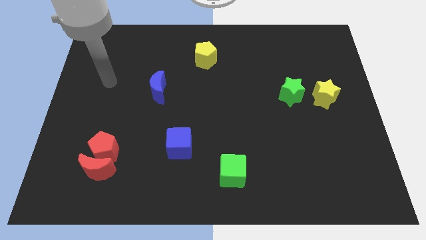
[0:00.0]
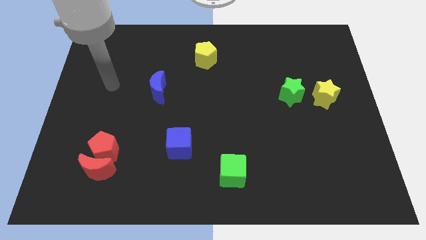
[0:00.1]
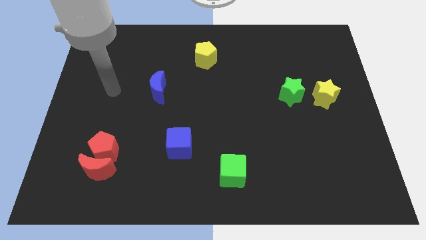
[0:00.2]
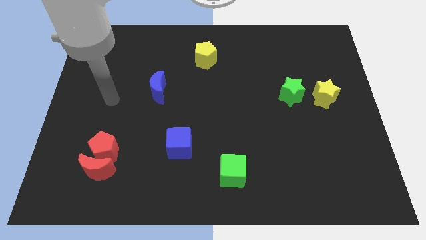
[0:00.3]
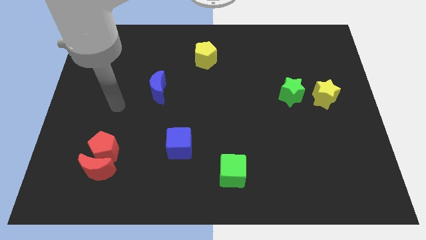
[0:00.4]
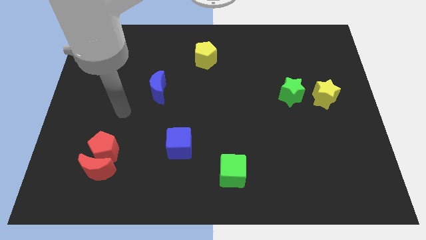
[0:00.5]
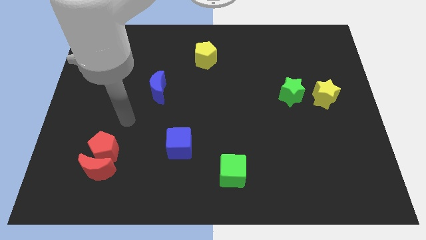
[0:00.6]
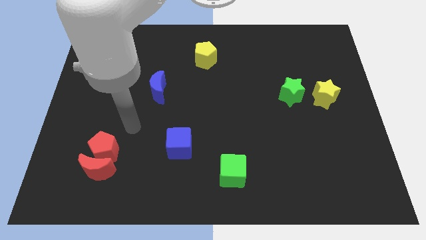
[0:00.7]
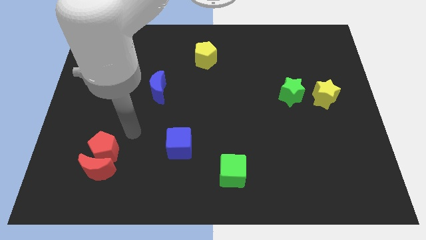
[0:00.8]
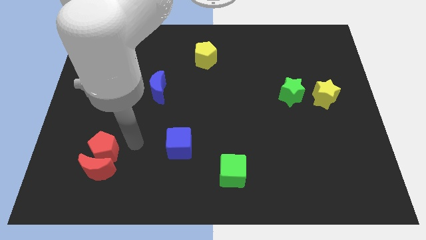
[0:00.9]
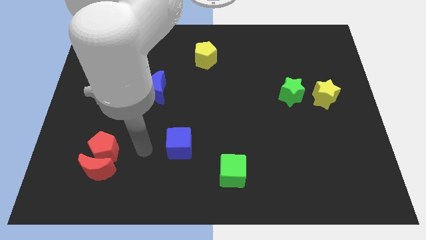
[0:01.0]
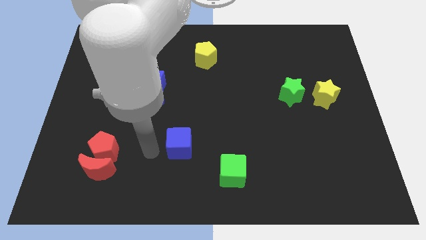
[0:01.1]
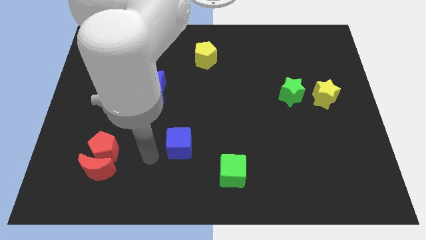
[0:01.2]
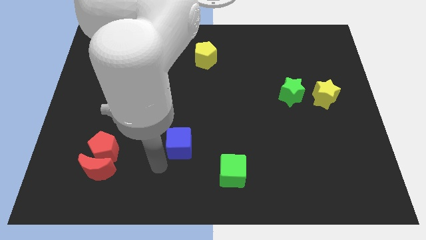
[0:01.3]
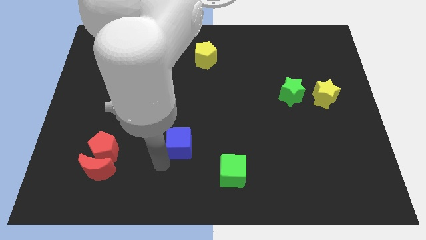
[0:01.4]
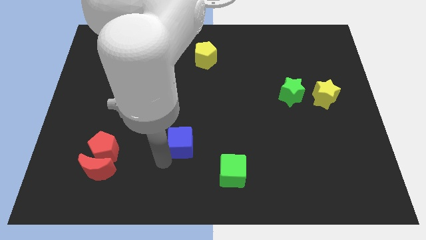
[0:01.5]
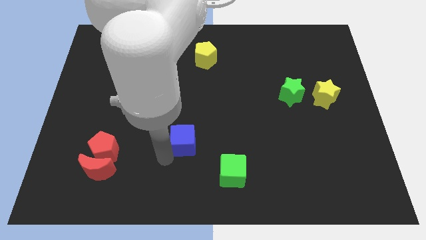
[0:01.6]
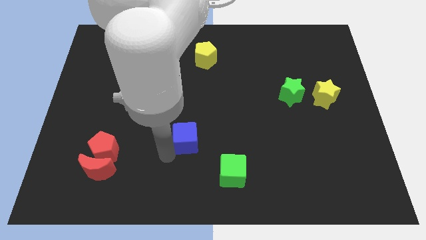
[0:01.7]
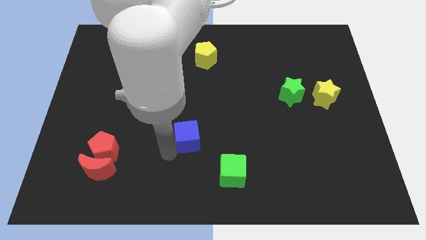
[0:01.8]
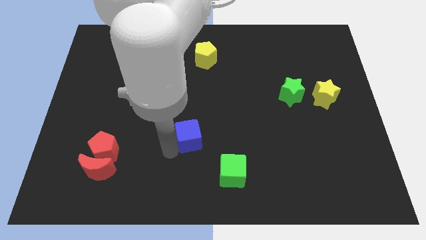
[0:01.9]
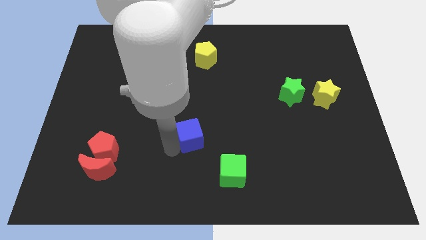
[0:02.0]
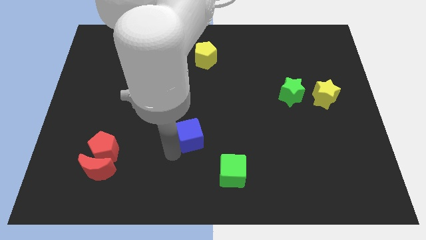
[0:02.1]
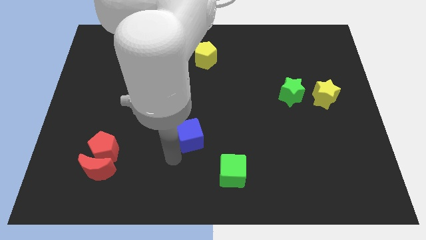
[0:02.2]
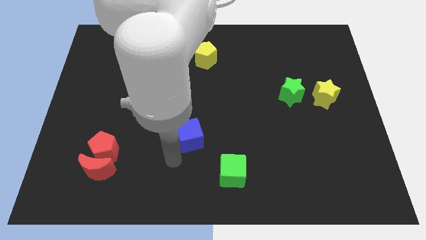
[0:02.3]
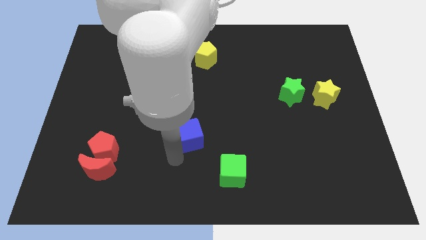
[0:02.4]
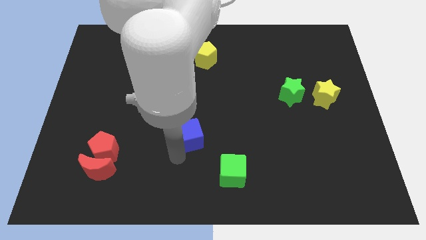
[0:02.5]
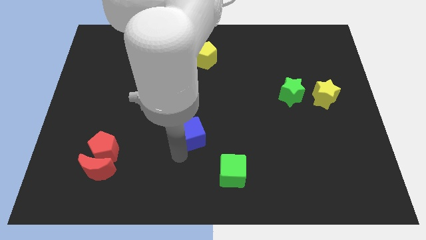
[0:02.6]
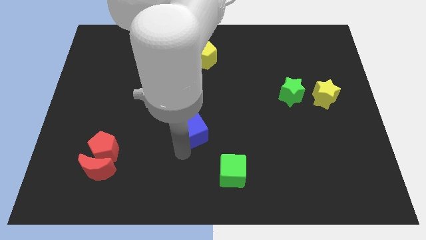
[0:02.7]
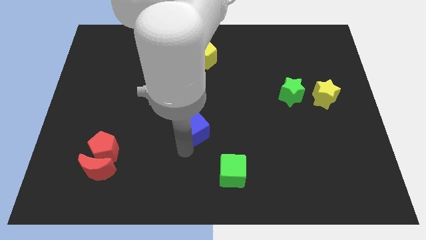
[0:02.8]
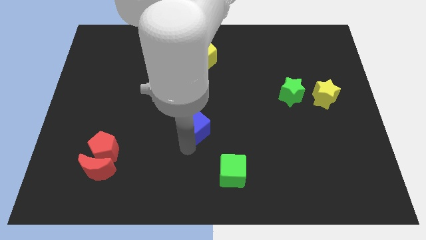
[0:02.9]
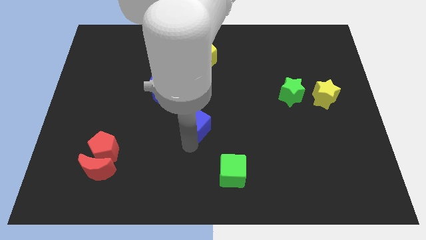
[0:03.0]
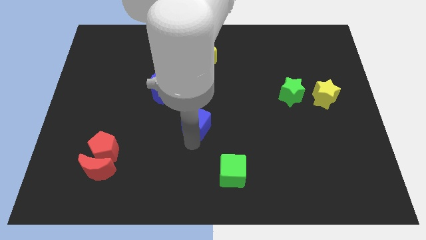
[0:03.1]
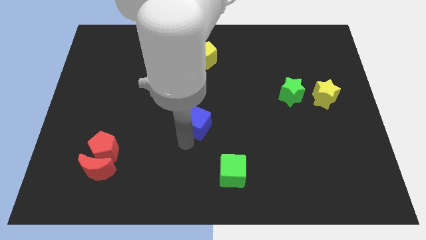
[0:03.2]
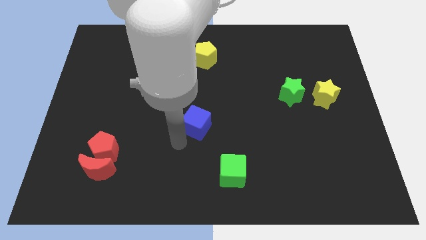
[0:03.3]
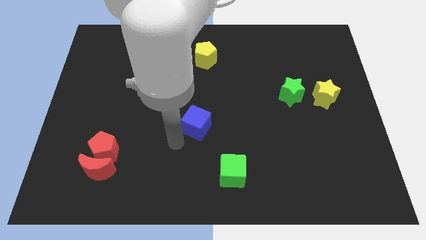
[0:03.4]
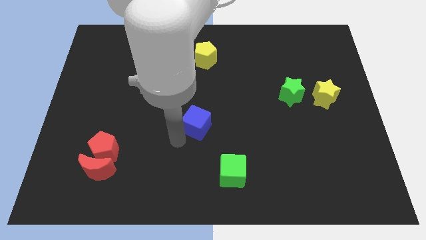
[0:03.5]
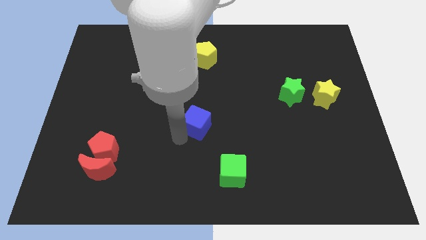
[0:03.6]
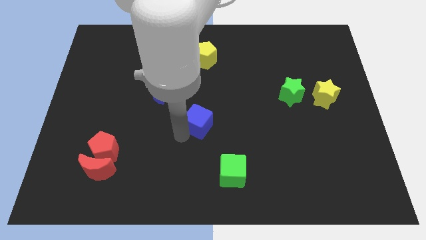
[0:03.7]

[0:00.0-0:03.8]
slightly move the blue cube upwards and to the right diagonally

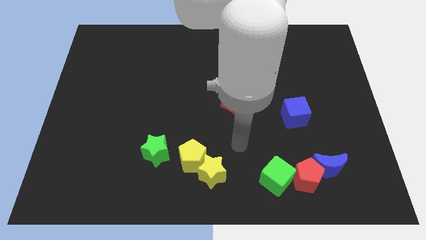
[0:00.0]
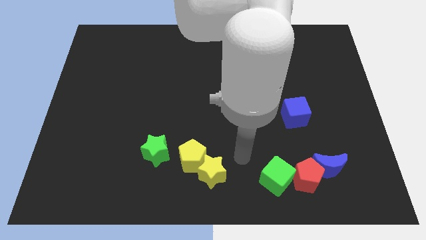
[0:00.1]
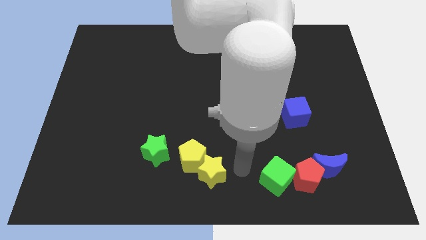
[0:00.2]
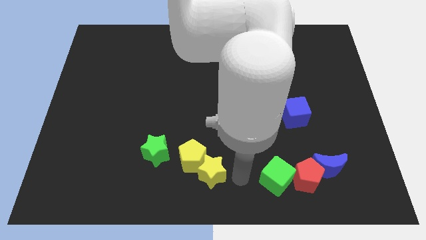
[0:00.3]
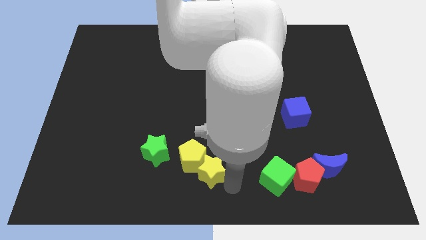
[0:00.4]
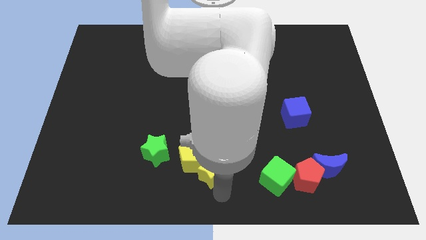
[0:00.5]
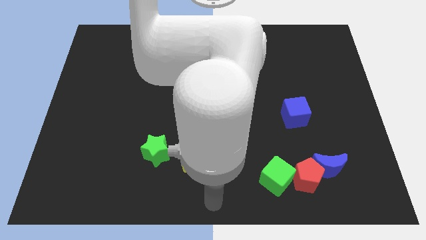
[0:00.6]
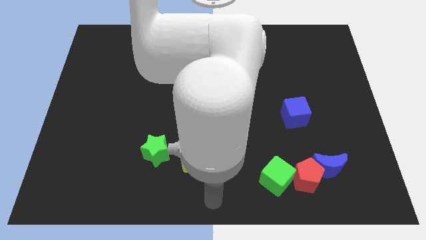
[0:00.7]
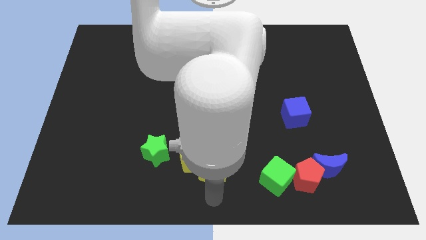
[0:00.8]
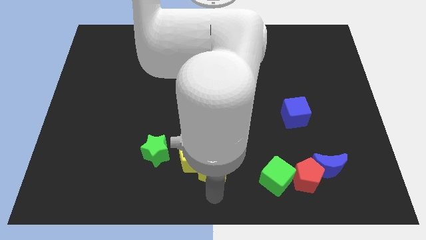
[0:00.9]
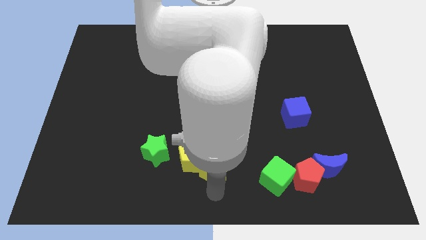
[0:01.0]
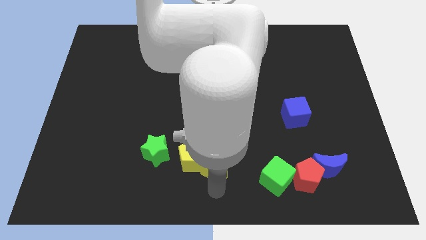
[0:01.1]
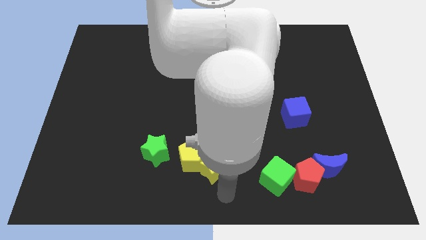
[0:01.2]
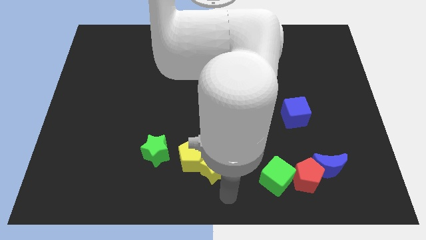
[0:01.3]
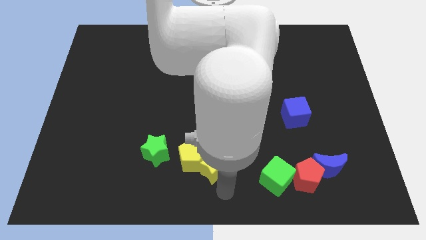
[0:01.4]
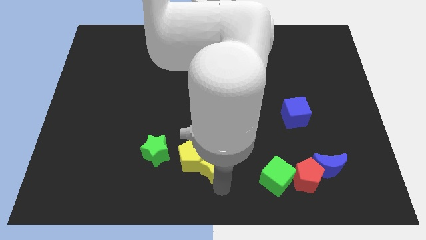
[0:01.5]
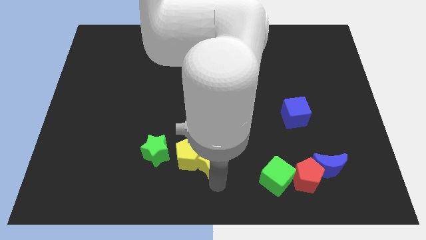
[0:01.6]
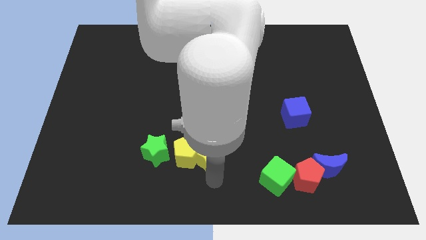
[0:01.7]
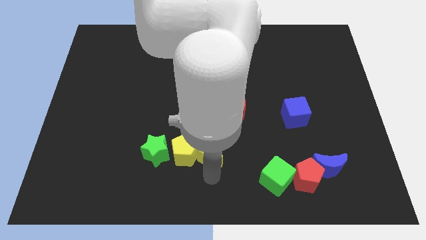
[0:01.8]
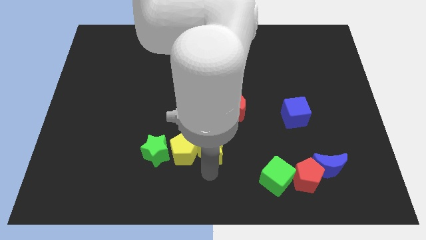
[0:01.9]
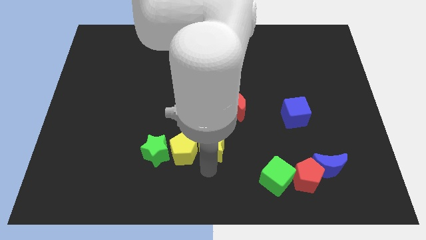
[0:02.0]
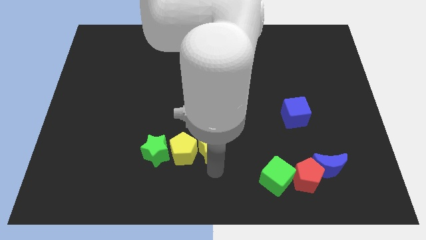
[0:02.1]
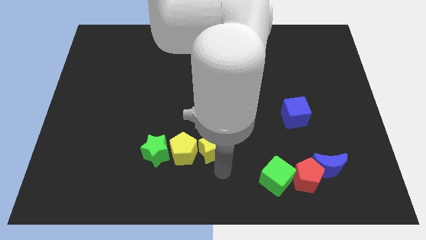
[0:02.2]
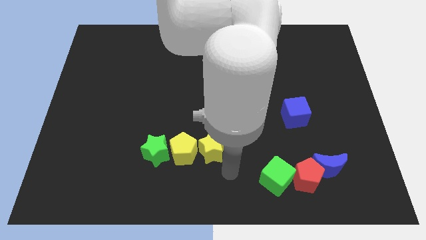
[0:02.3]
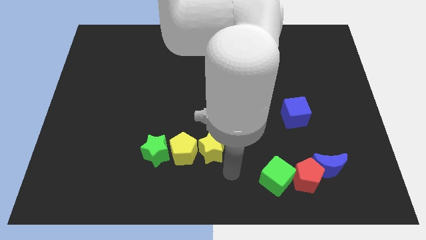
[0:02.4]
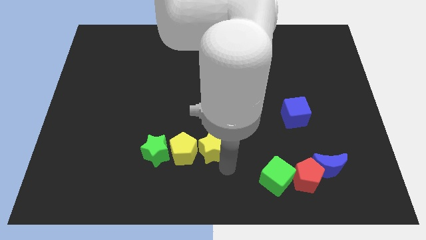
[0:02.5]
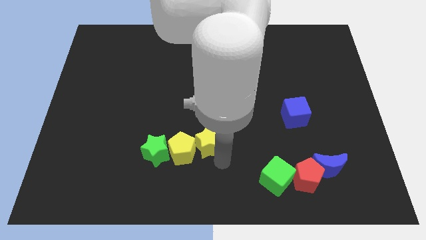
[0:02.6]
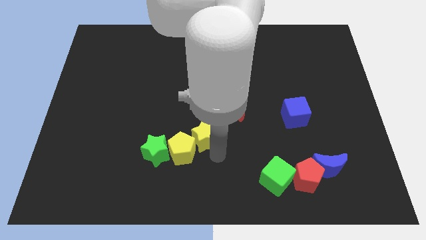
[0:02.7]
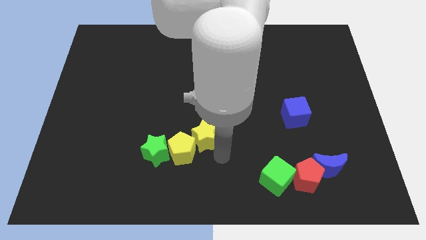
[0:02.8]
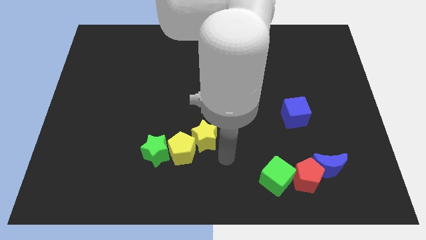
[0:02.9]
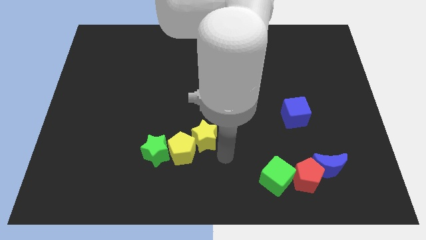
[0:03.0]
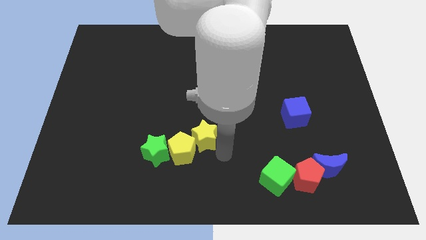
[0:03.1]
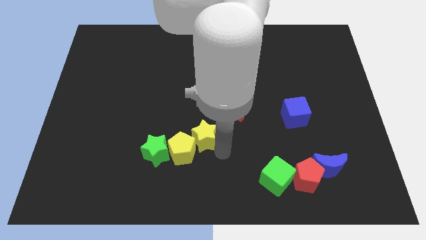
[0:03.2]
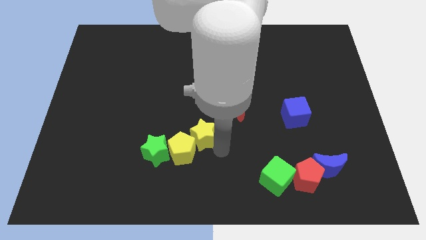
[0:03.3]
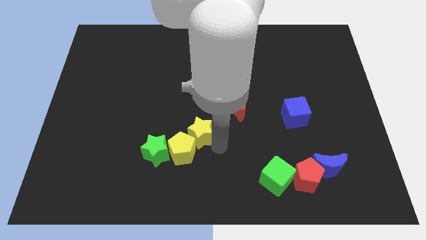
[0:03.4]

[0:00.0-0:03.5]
push the yellow star up and to the left diagonally a little bit

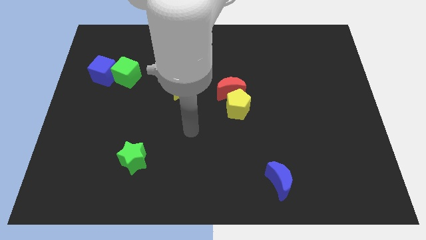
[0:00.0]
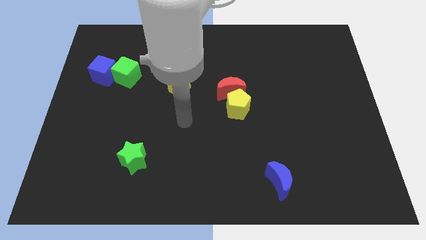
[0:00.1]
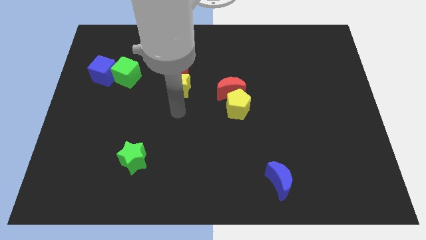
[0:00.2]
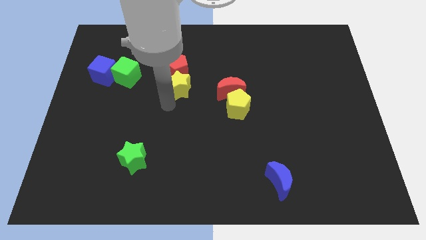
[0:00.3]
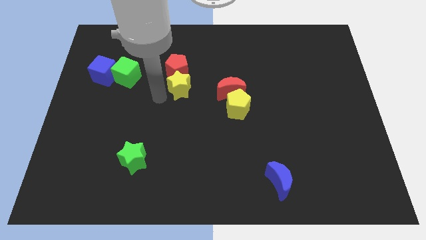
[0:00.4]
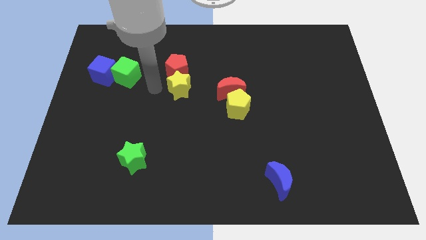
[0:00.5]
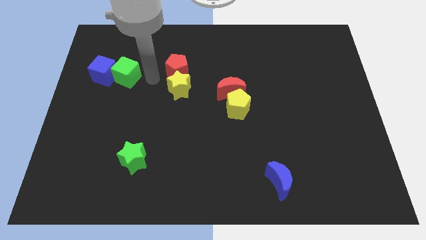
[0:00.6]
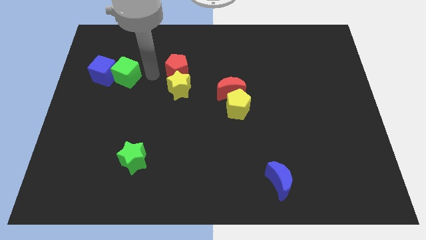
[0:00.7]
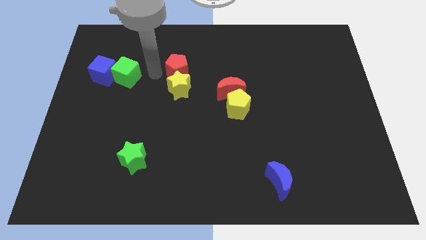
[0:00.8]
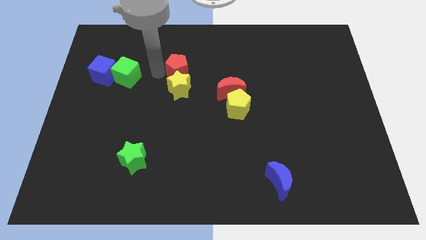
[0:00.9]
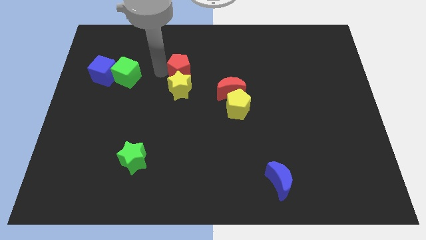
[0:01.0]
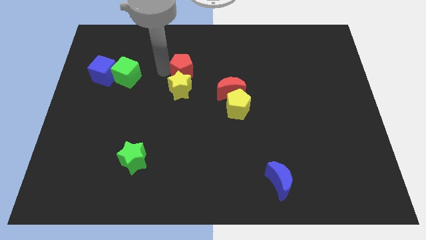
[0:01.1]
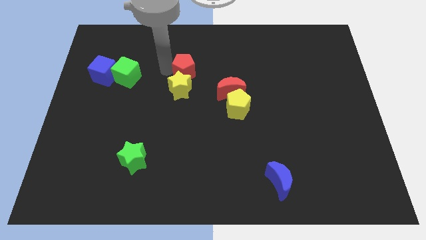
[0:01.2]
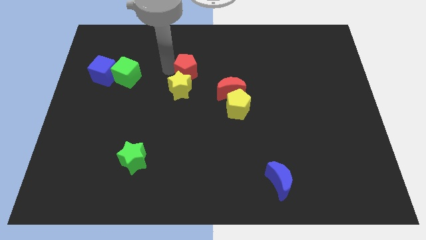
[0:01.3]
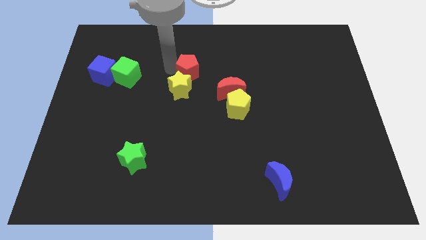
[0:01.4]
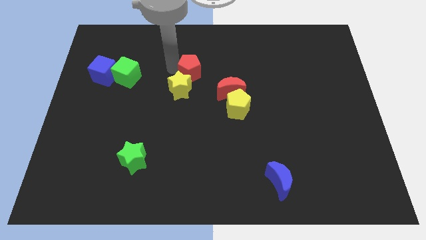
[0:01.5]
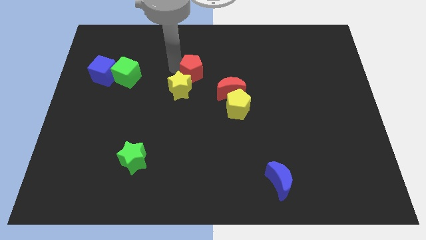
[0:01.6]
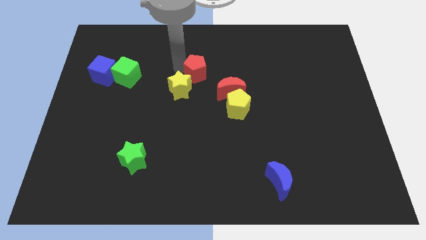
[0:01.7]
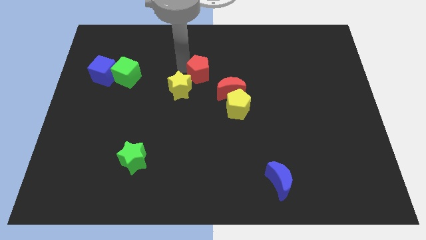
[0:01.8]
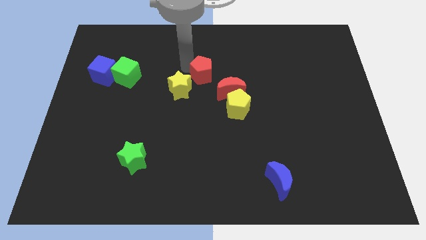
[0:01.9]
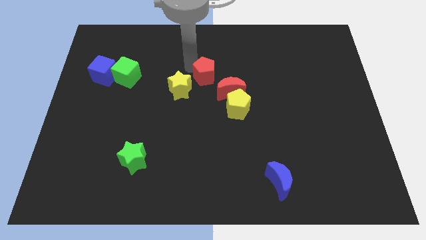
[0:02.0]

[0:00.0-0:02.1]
move the red pentagon right a bit
